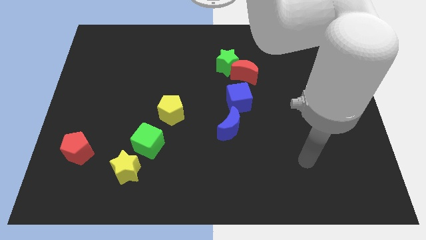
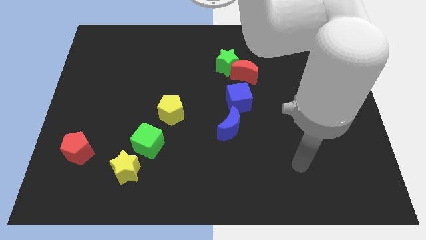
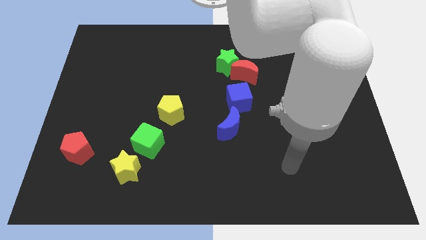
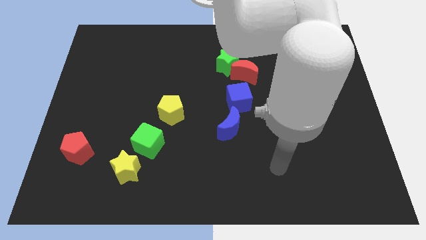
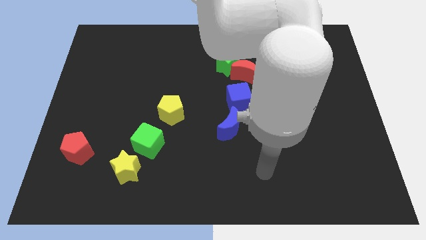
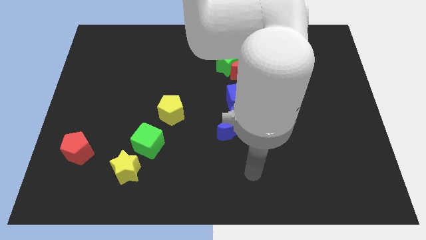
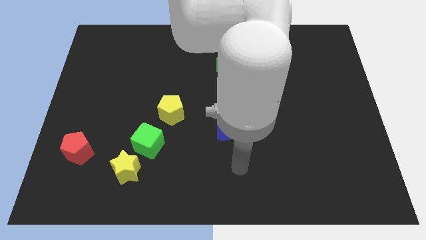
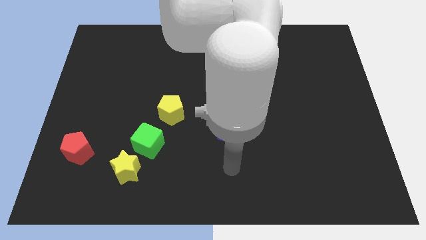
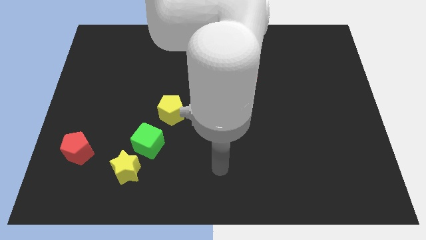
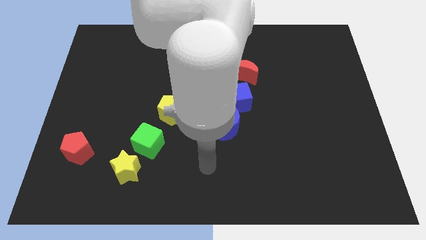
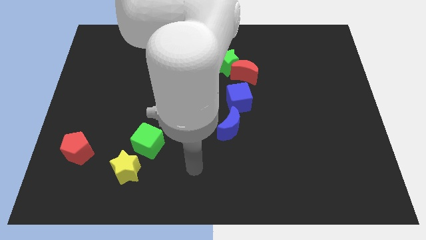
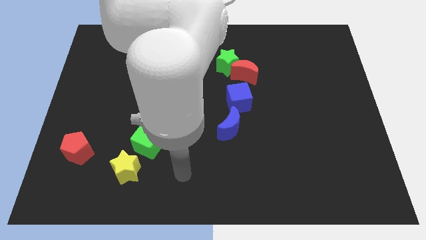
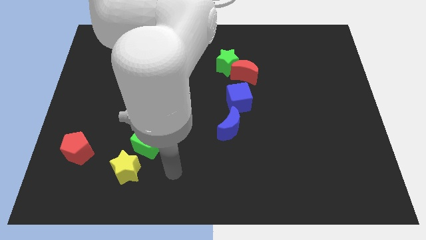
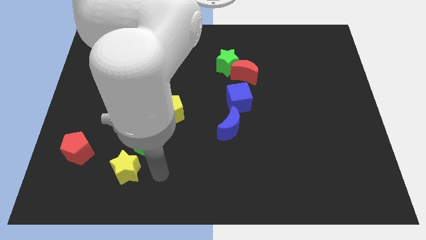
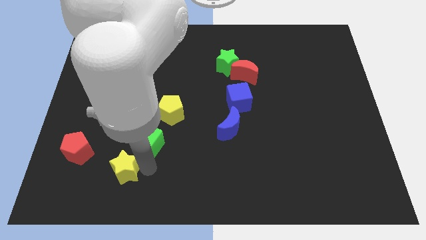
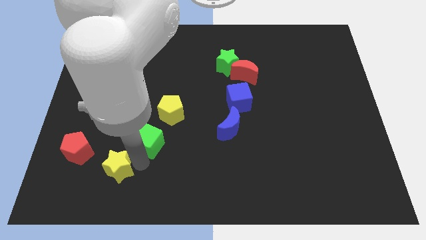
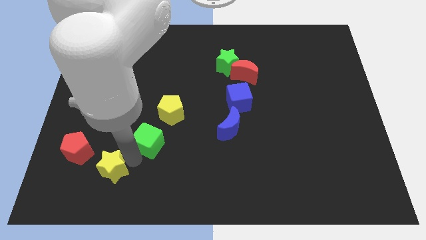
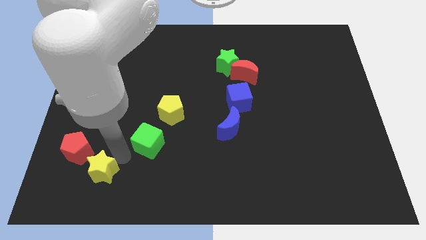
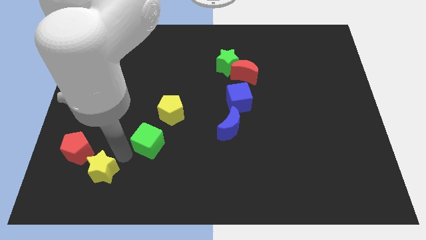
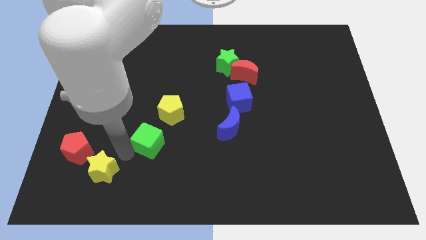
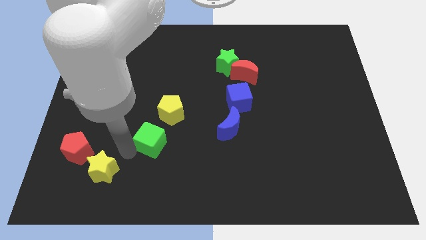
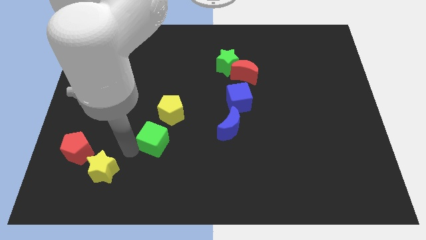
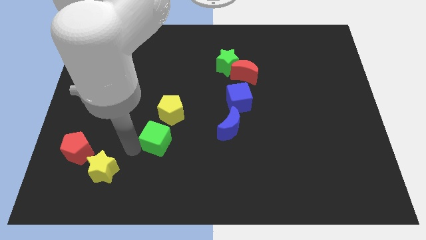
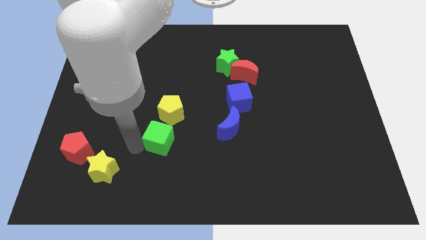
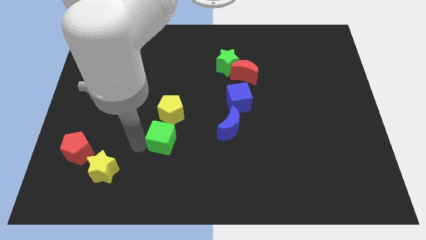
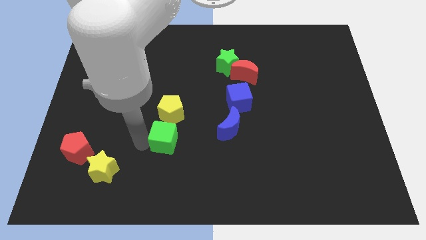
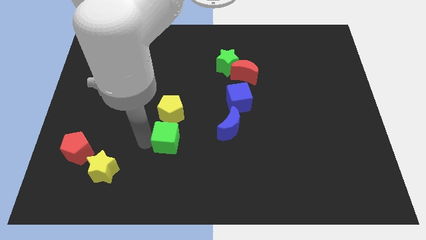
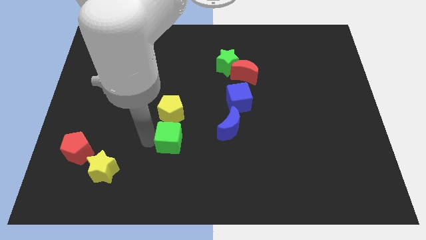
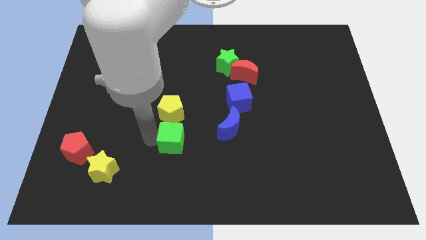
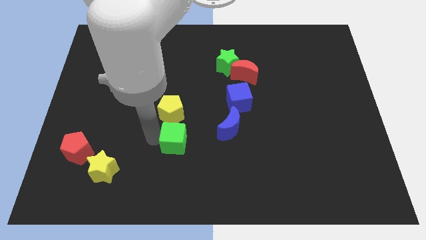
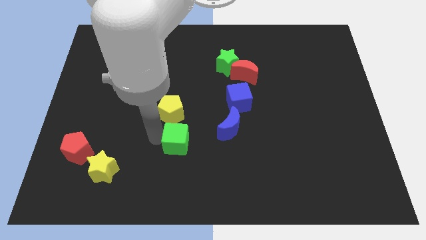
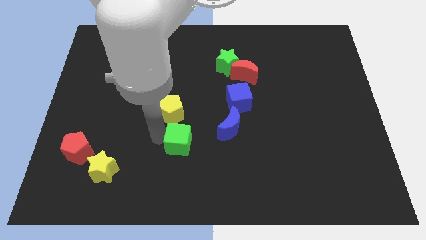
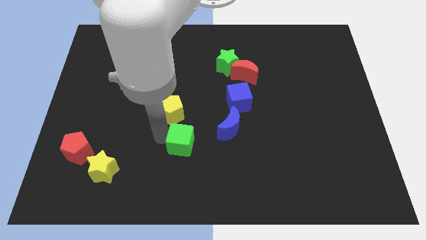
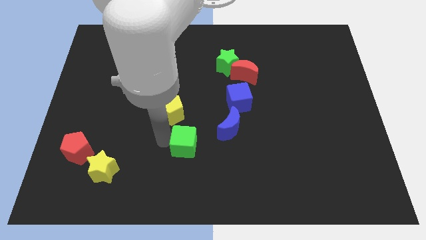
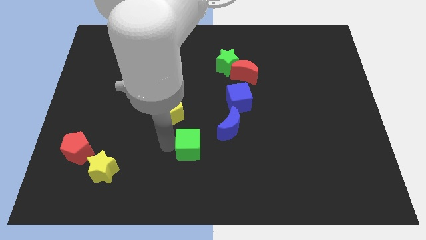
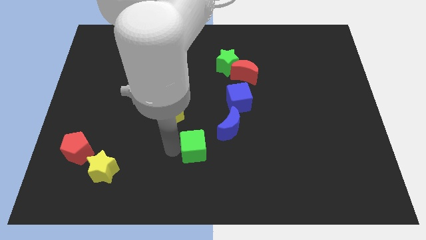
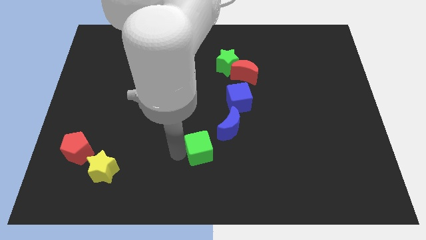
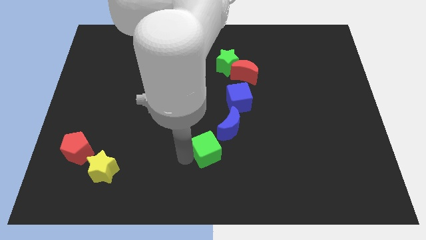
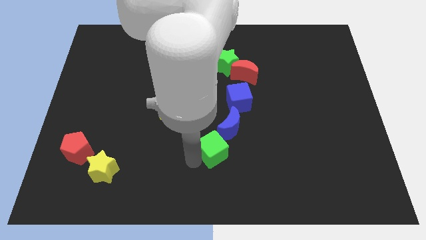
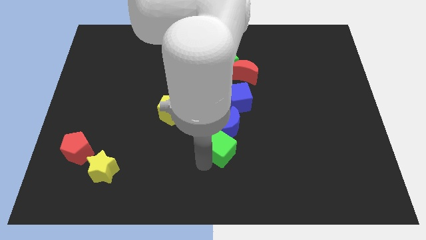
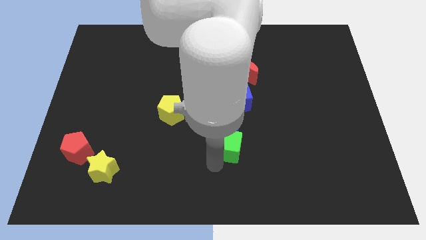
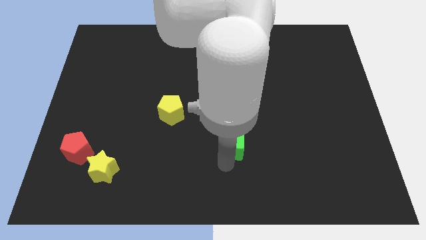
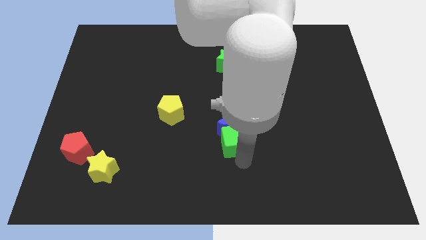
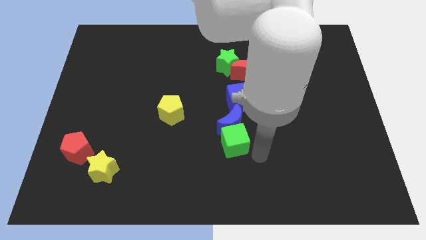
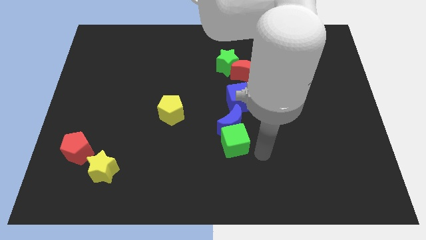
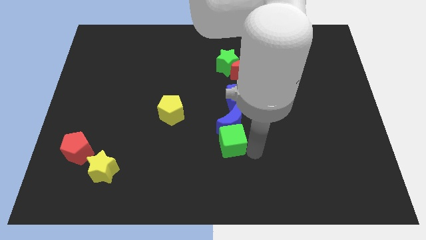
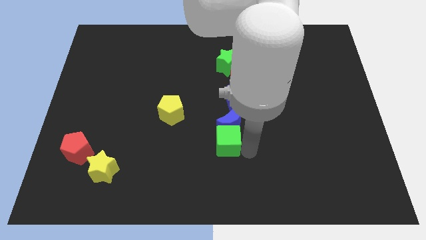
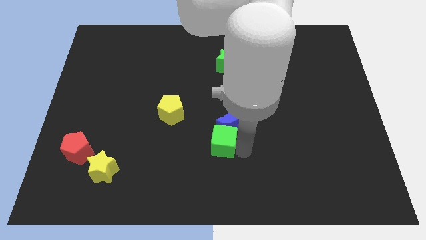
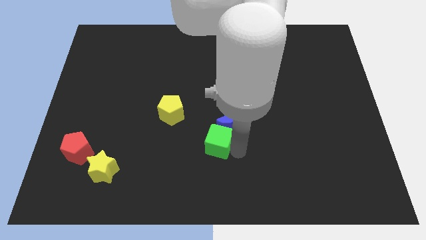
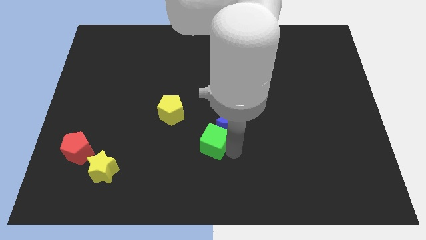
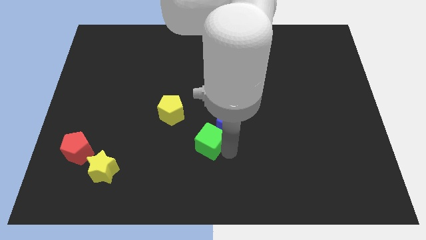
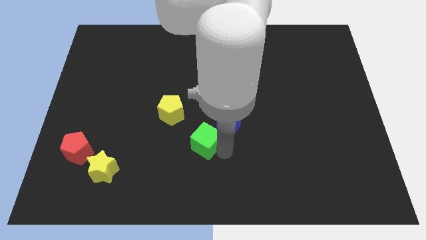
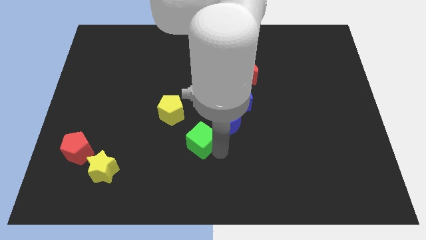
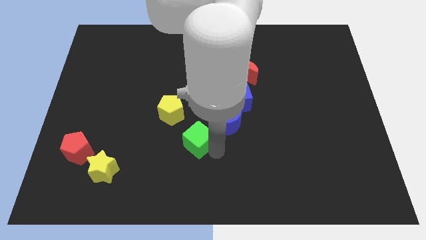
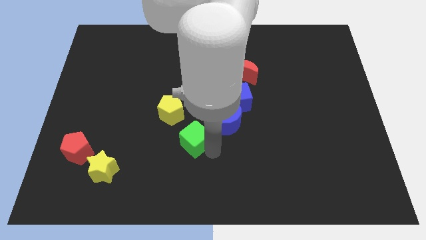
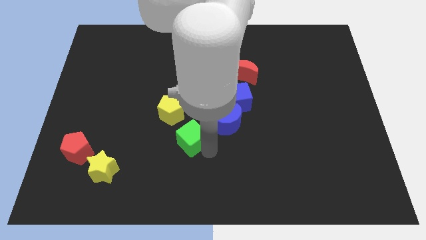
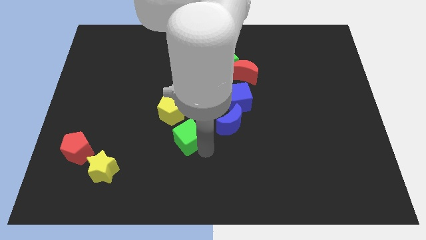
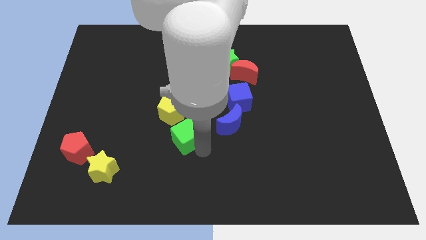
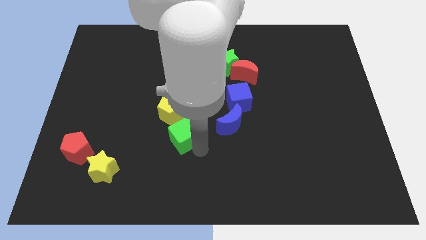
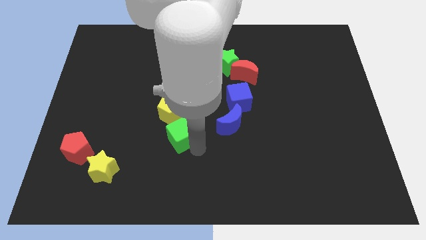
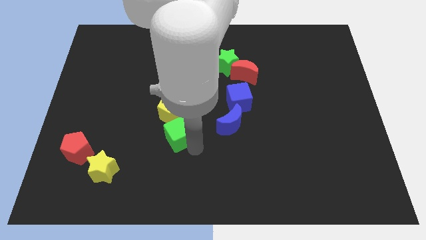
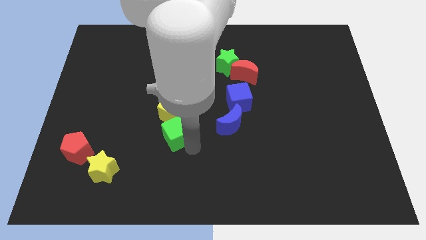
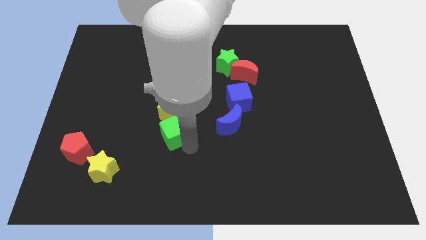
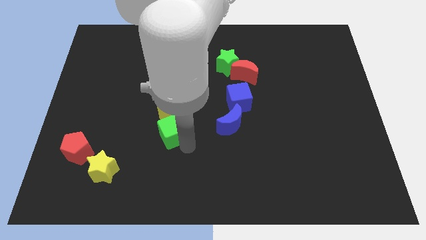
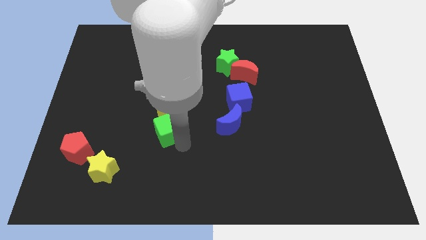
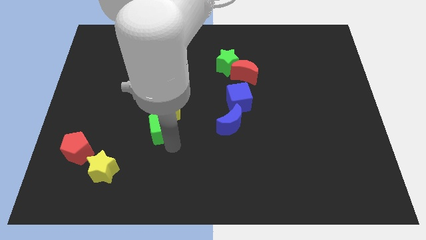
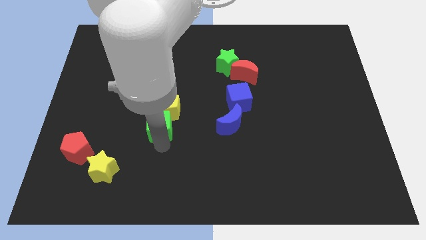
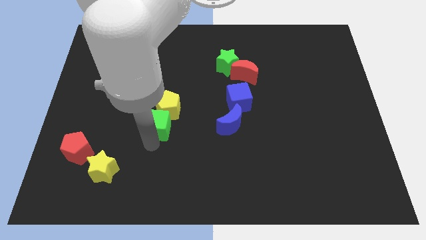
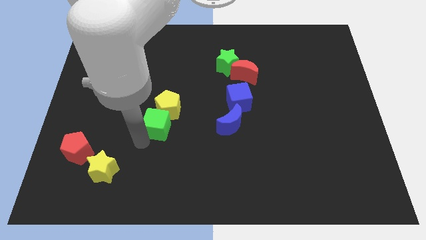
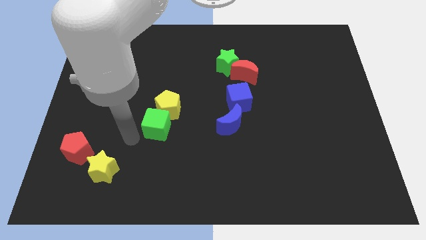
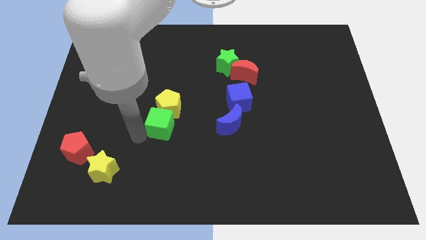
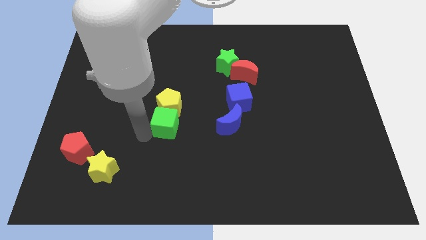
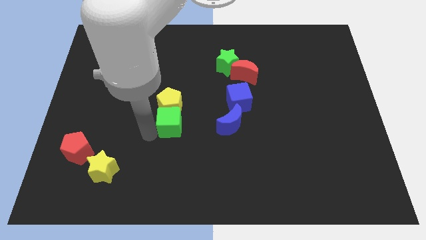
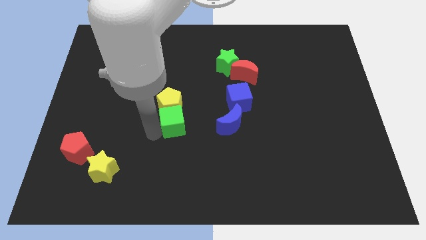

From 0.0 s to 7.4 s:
slightly push the green cube up and right

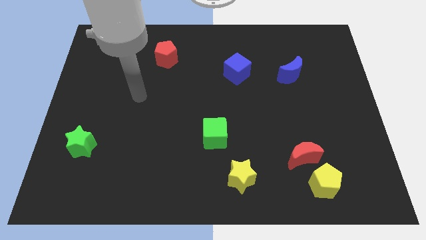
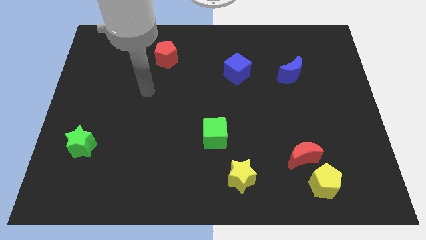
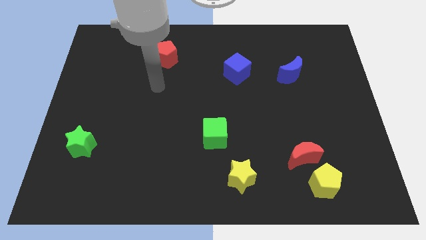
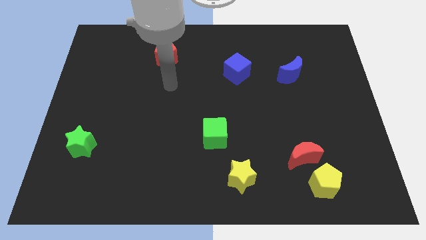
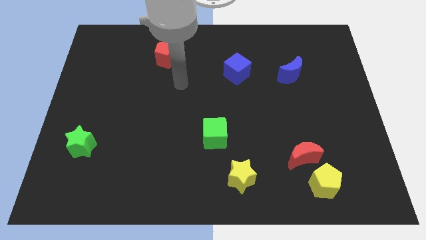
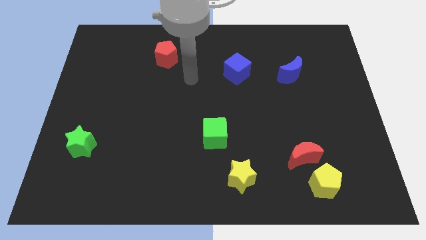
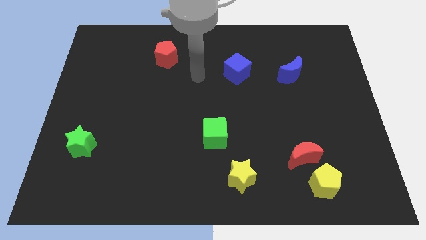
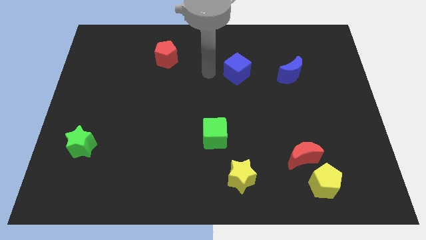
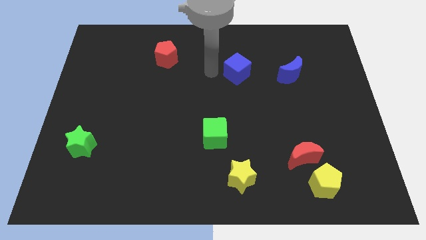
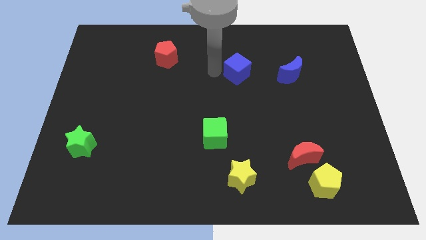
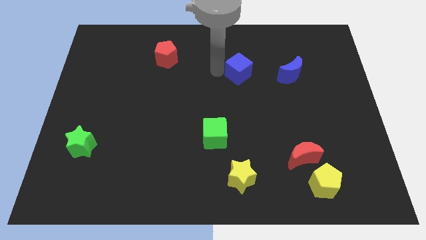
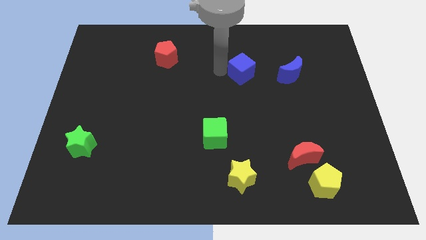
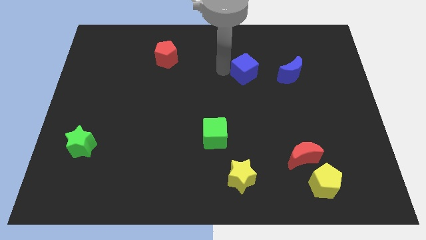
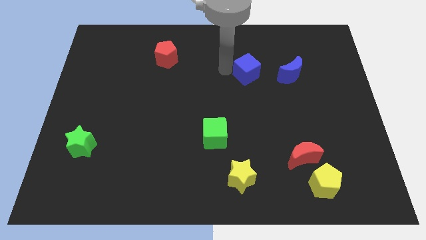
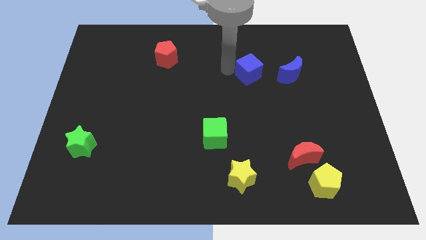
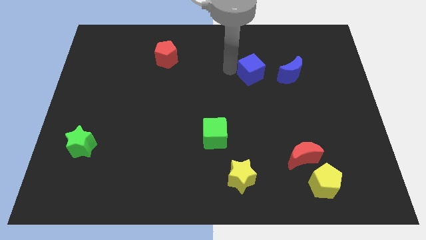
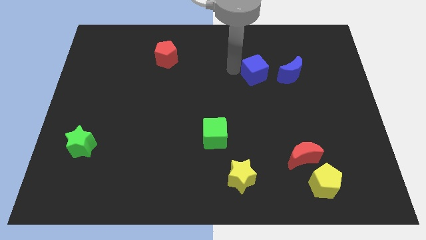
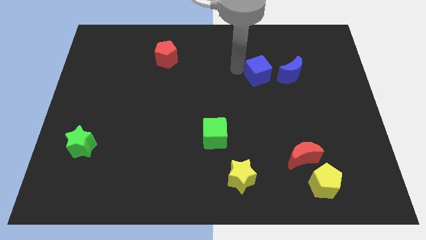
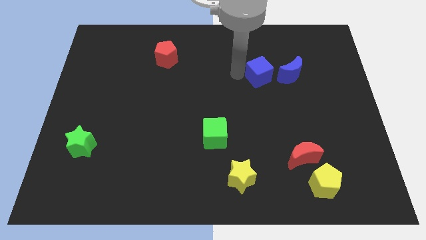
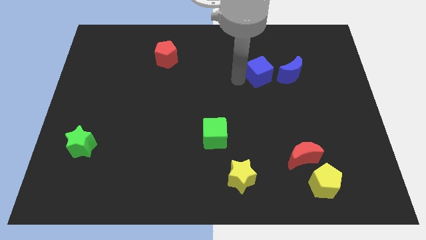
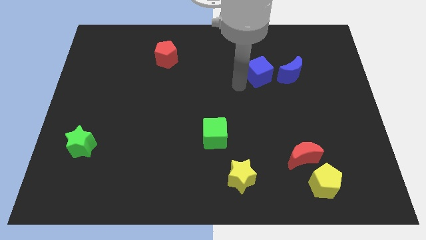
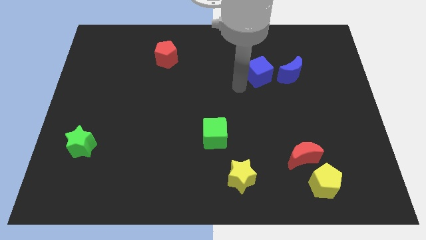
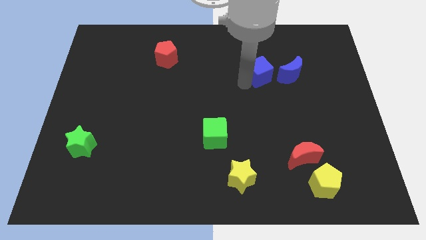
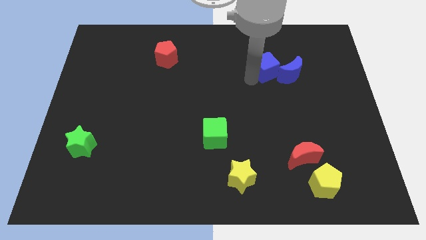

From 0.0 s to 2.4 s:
slightly move the blue cube right
